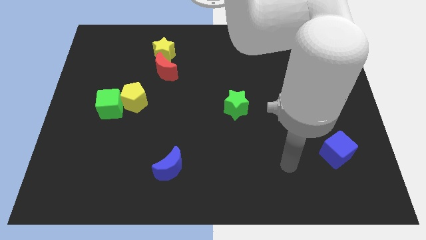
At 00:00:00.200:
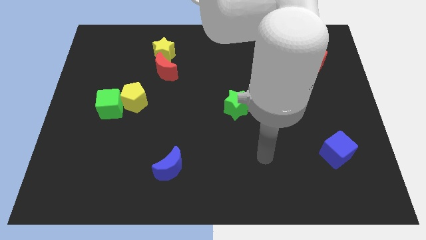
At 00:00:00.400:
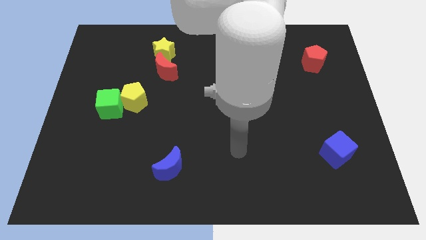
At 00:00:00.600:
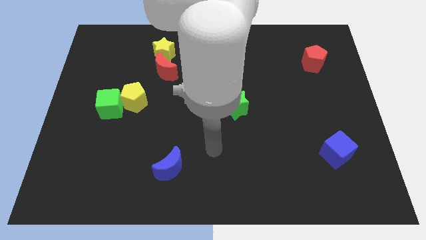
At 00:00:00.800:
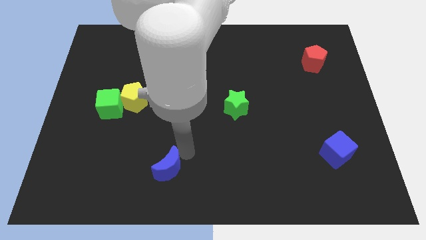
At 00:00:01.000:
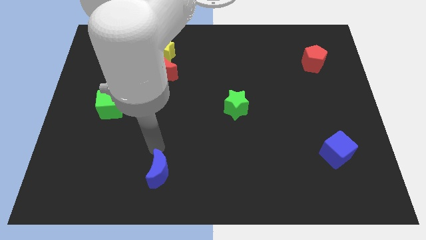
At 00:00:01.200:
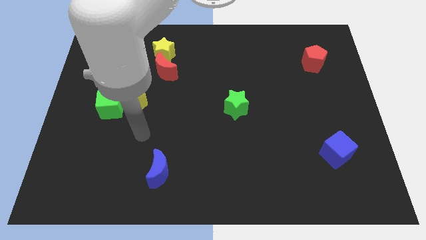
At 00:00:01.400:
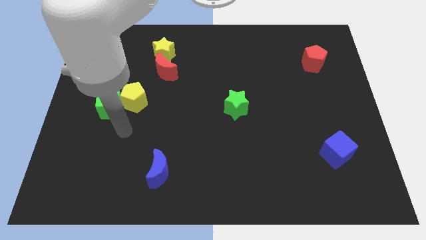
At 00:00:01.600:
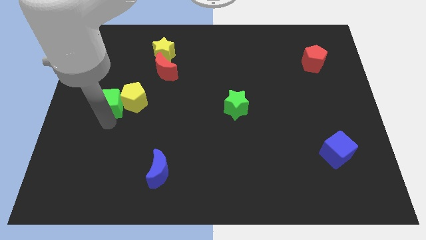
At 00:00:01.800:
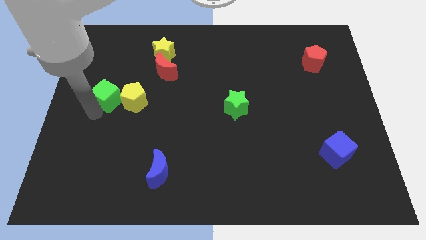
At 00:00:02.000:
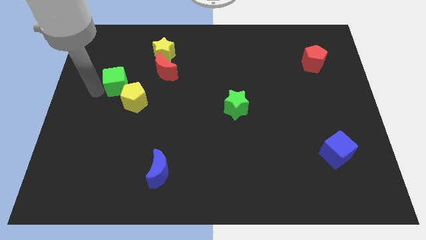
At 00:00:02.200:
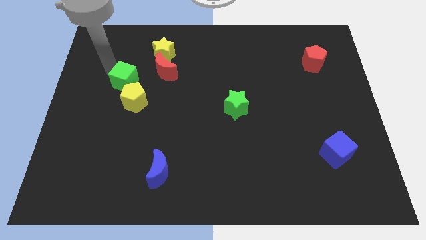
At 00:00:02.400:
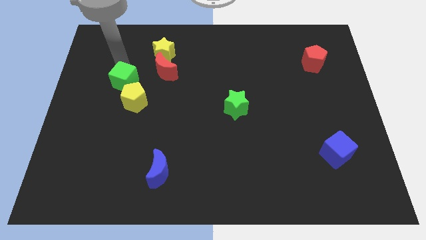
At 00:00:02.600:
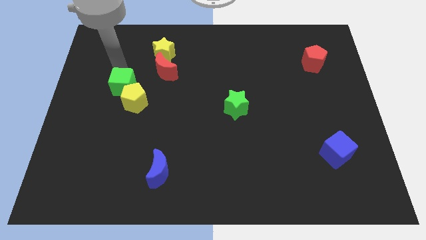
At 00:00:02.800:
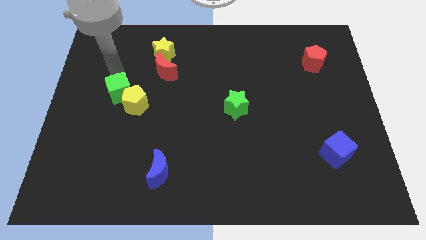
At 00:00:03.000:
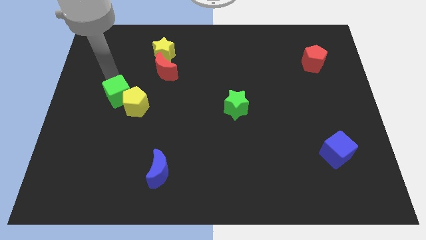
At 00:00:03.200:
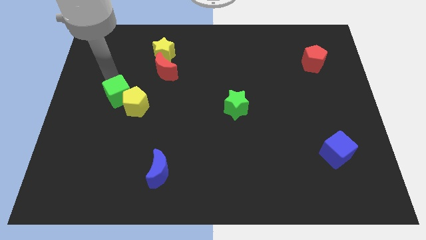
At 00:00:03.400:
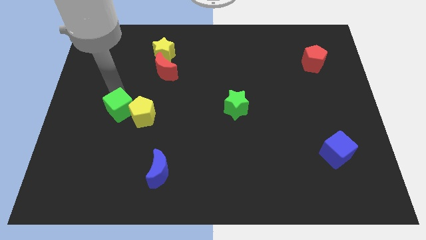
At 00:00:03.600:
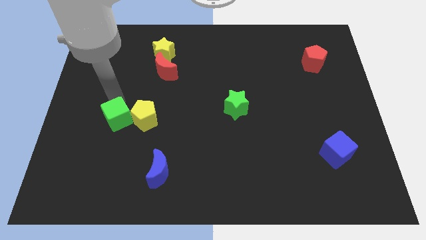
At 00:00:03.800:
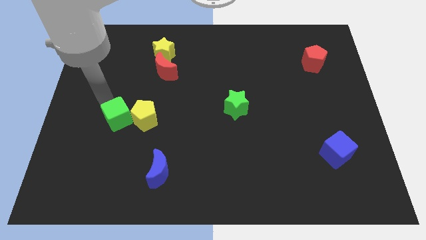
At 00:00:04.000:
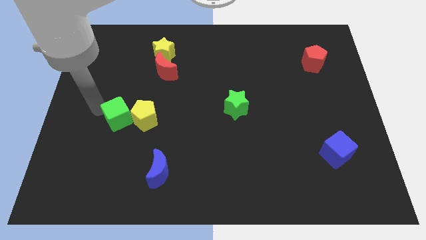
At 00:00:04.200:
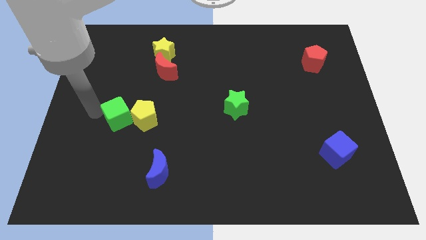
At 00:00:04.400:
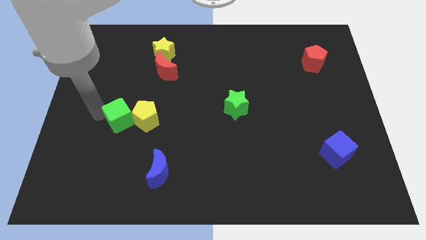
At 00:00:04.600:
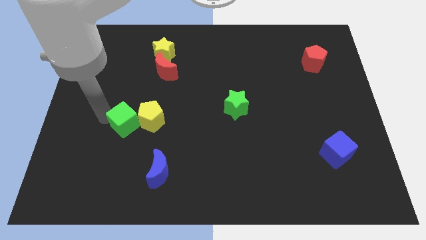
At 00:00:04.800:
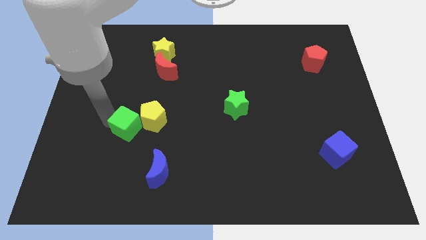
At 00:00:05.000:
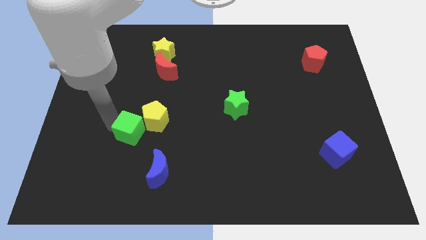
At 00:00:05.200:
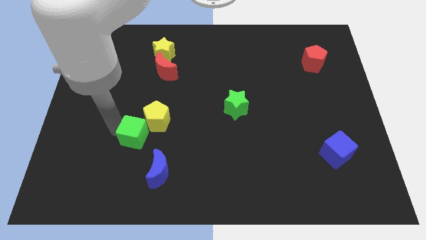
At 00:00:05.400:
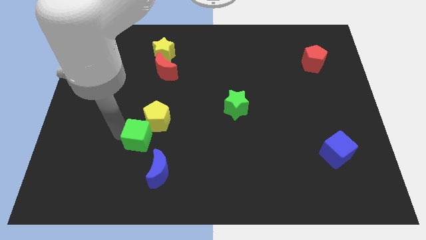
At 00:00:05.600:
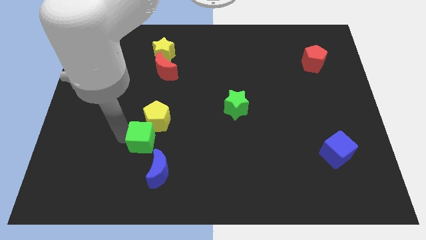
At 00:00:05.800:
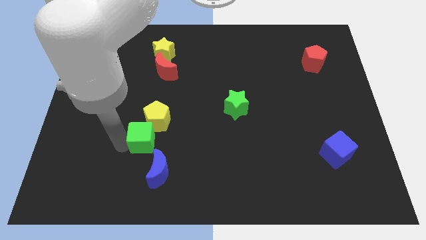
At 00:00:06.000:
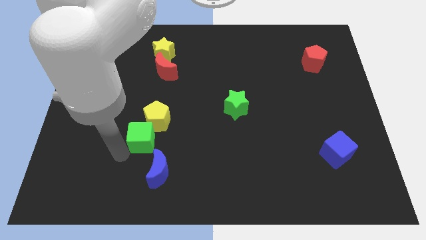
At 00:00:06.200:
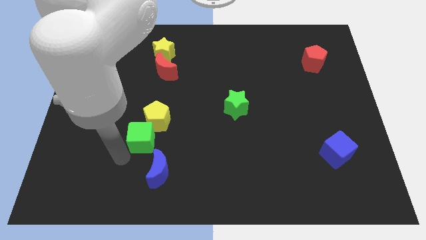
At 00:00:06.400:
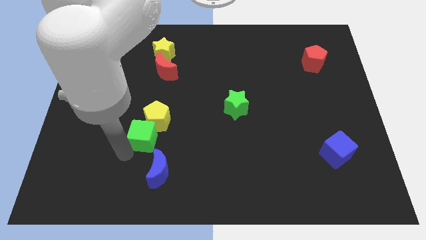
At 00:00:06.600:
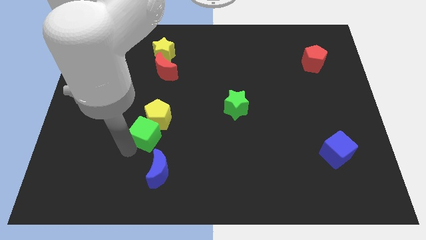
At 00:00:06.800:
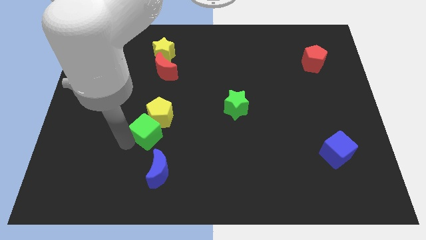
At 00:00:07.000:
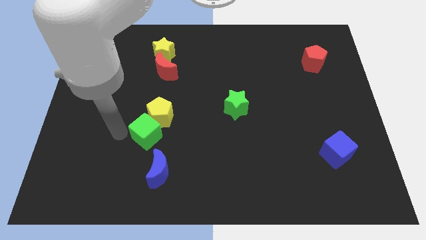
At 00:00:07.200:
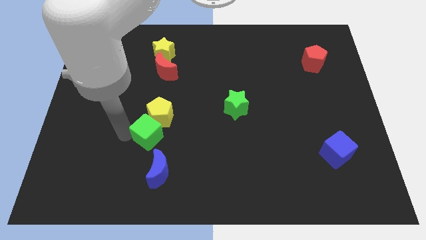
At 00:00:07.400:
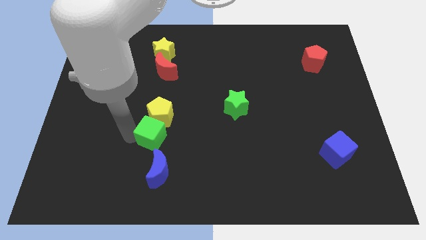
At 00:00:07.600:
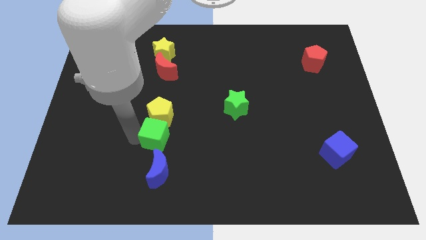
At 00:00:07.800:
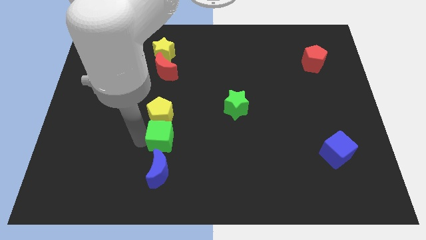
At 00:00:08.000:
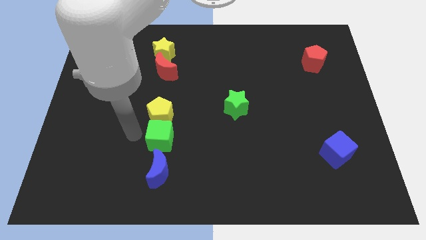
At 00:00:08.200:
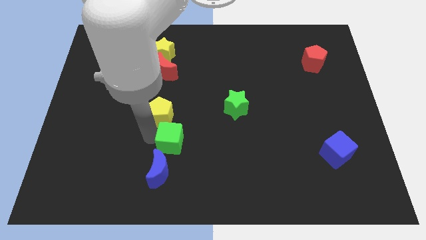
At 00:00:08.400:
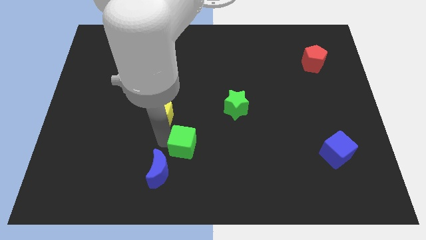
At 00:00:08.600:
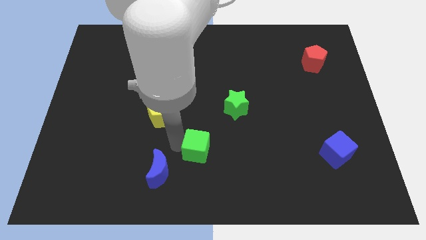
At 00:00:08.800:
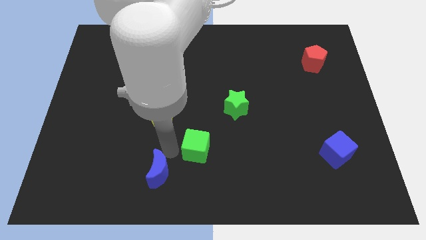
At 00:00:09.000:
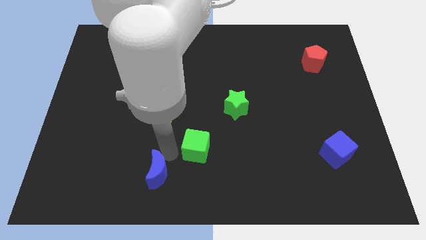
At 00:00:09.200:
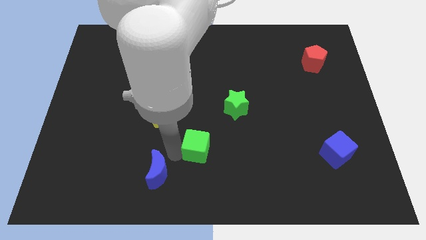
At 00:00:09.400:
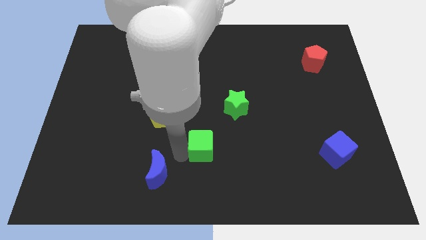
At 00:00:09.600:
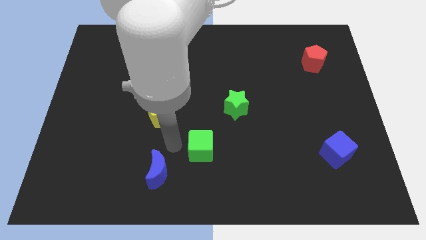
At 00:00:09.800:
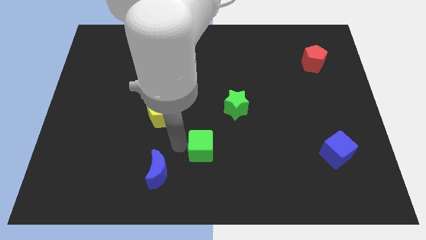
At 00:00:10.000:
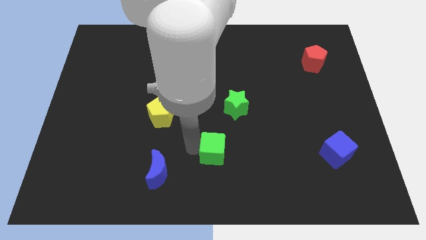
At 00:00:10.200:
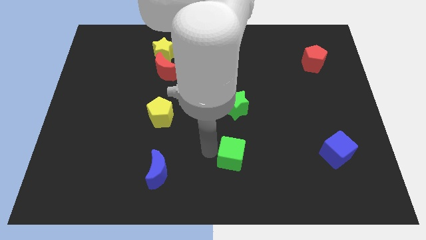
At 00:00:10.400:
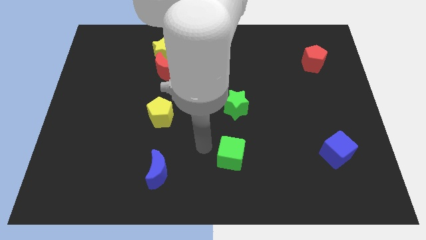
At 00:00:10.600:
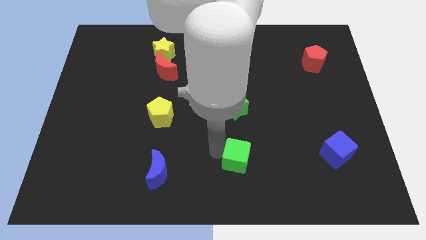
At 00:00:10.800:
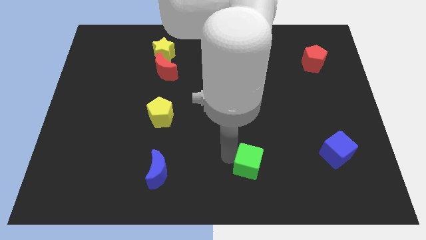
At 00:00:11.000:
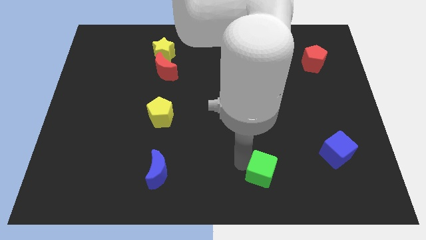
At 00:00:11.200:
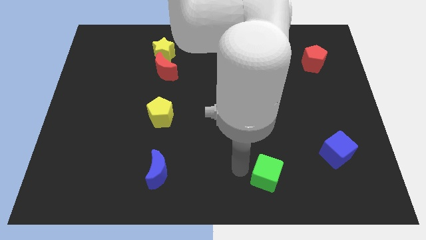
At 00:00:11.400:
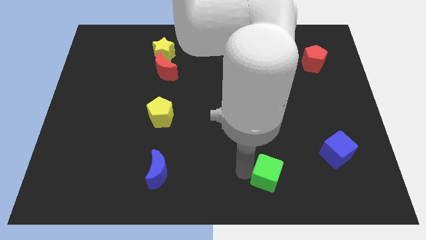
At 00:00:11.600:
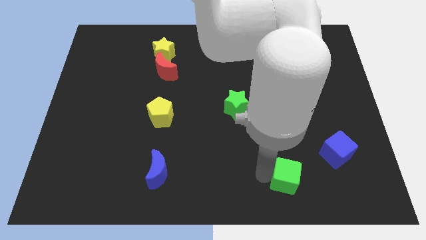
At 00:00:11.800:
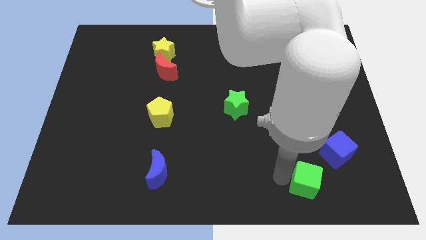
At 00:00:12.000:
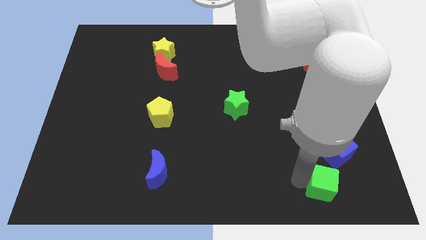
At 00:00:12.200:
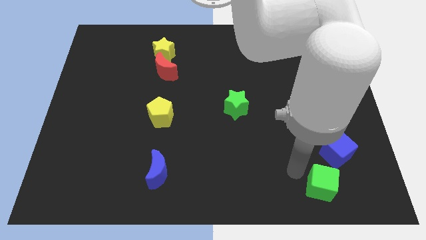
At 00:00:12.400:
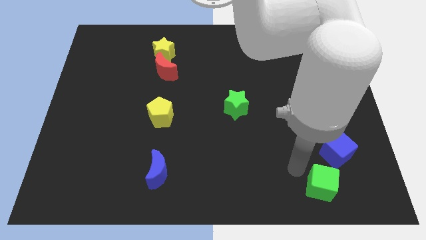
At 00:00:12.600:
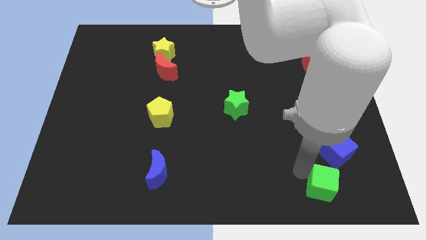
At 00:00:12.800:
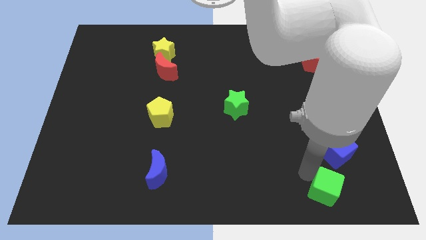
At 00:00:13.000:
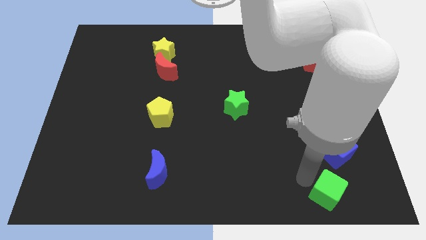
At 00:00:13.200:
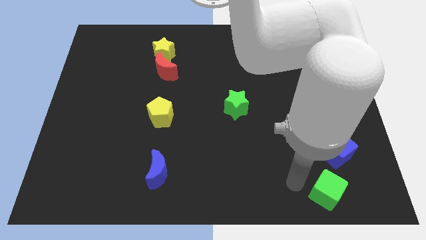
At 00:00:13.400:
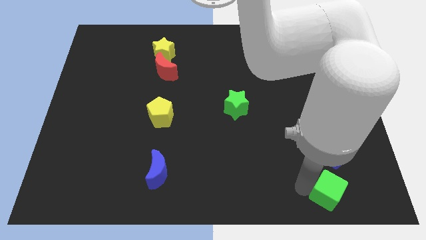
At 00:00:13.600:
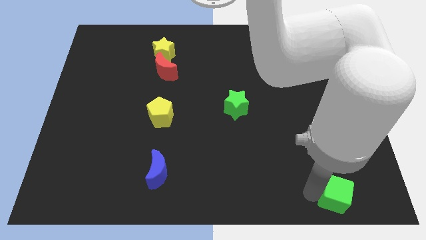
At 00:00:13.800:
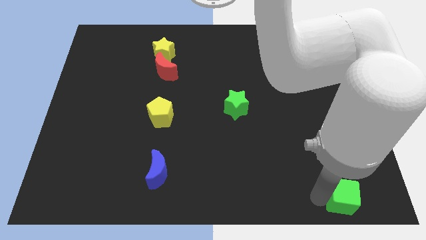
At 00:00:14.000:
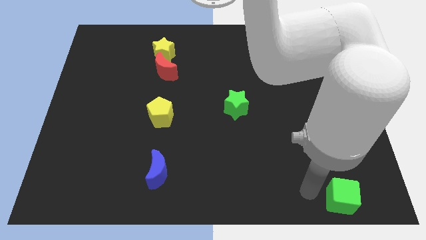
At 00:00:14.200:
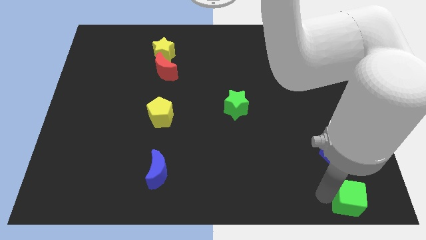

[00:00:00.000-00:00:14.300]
push the green cube to the lower right corner
